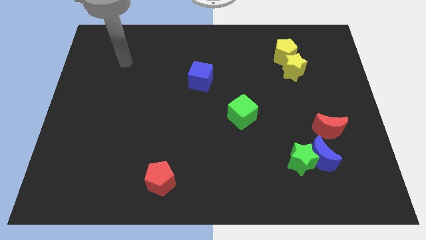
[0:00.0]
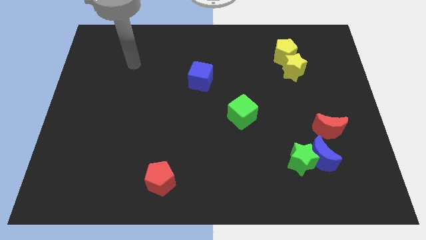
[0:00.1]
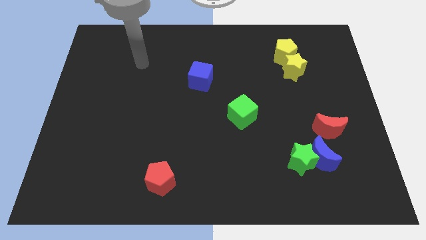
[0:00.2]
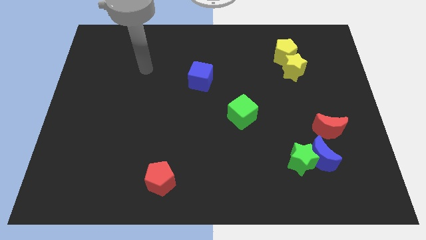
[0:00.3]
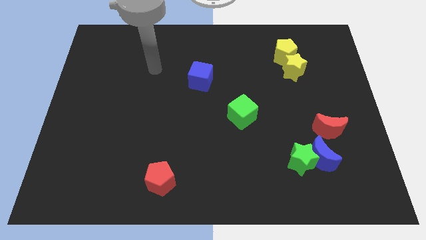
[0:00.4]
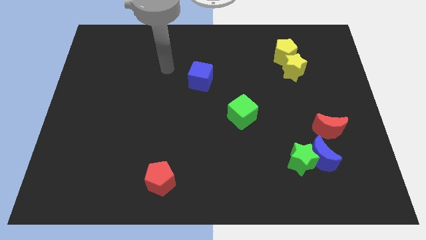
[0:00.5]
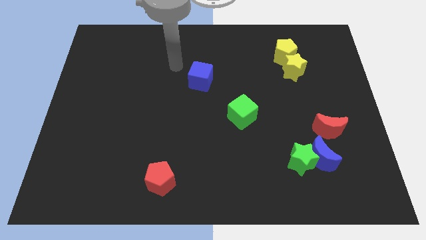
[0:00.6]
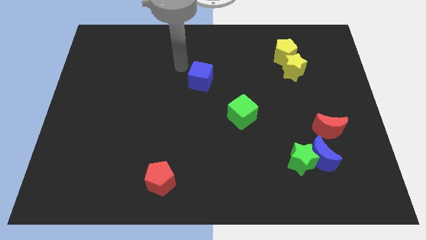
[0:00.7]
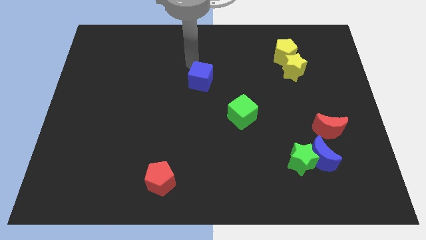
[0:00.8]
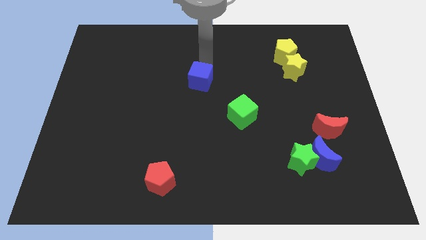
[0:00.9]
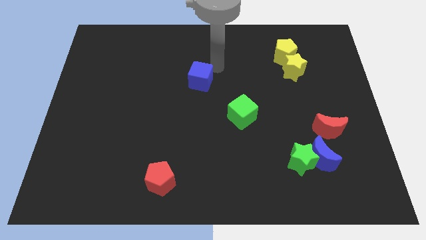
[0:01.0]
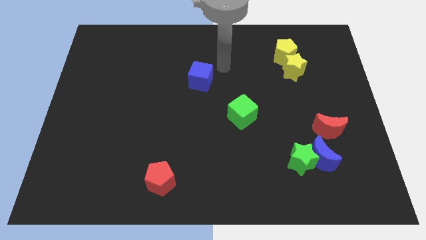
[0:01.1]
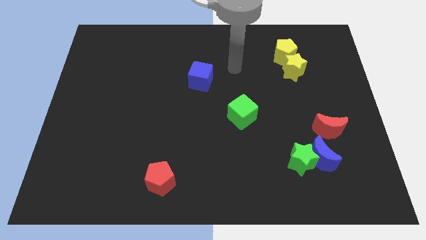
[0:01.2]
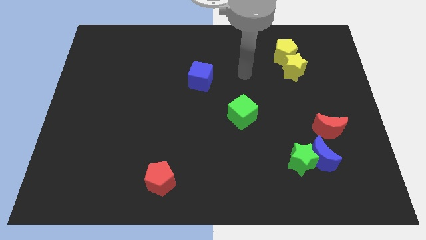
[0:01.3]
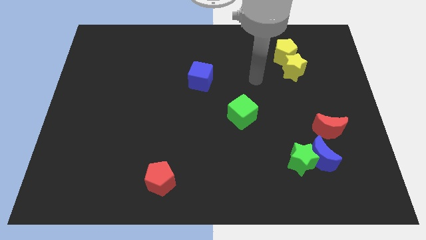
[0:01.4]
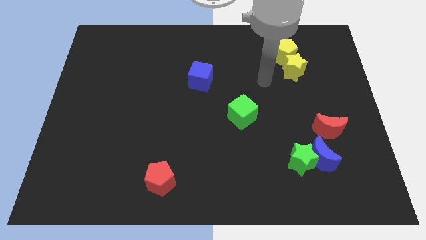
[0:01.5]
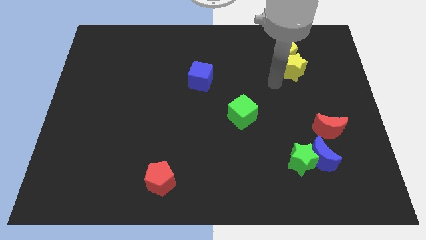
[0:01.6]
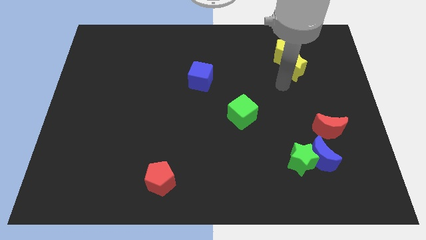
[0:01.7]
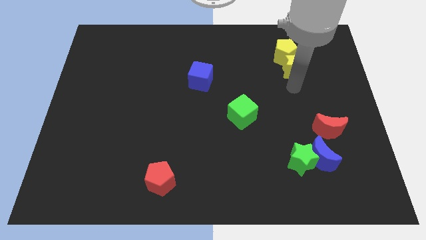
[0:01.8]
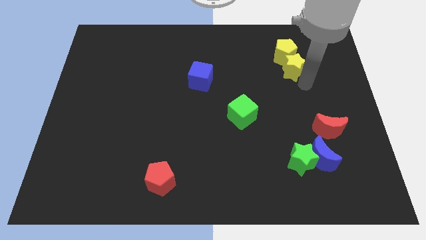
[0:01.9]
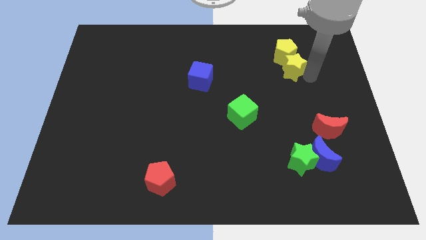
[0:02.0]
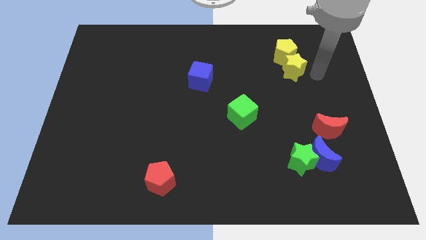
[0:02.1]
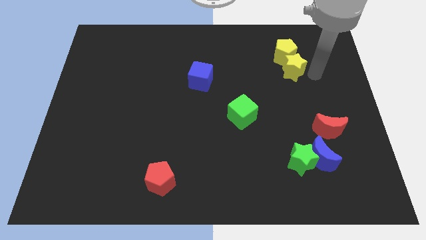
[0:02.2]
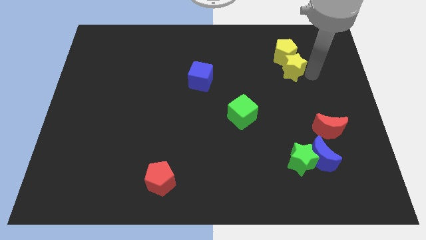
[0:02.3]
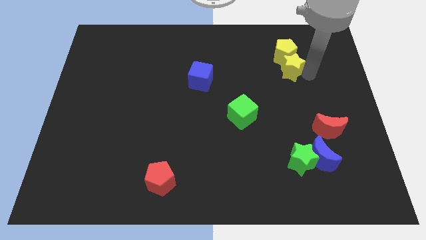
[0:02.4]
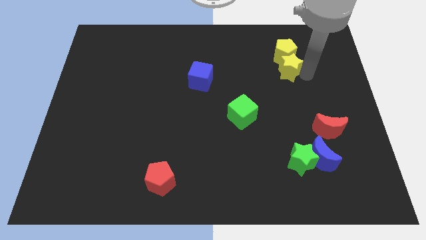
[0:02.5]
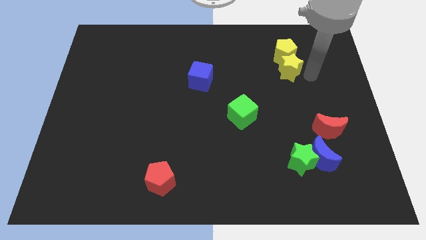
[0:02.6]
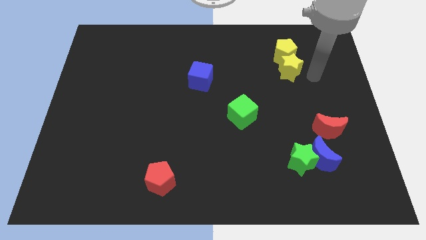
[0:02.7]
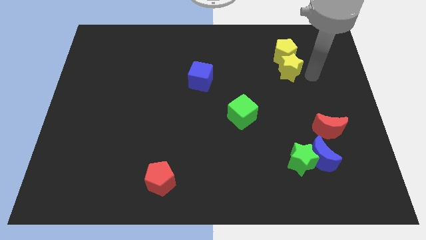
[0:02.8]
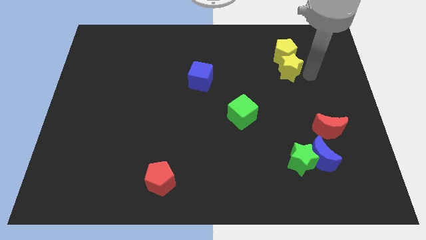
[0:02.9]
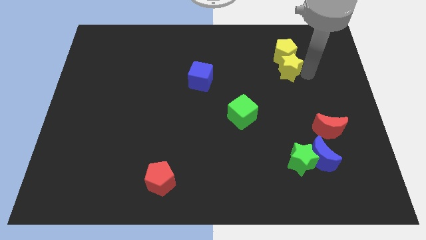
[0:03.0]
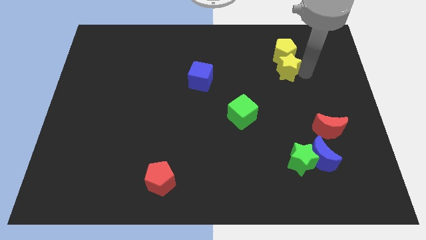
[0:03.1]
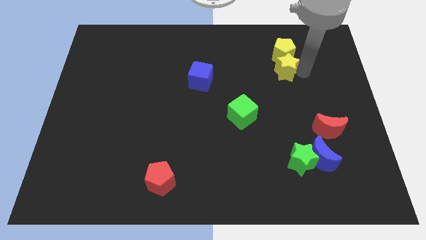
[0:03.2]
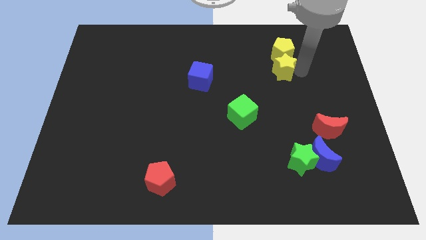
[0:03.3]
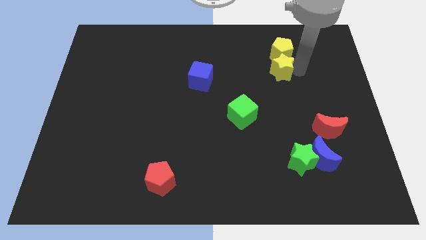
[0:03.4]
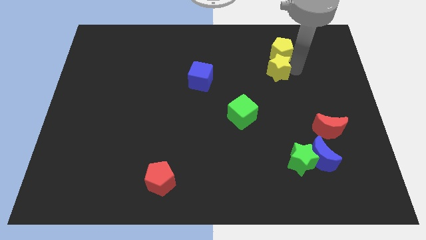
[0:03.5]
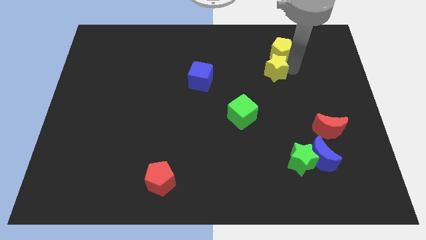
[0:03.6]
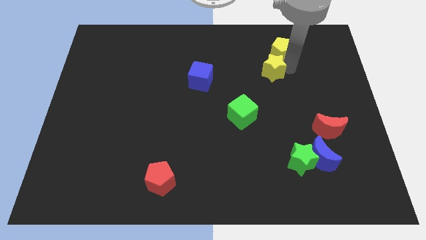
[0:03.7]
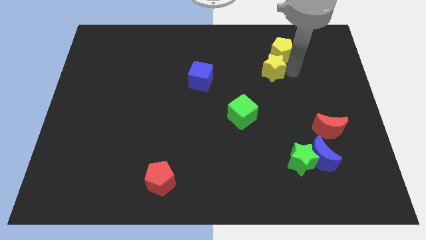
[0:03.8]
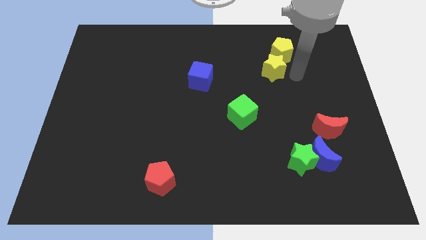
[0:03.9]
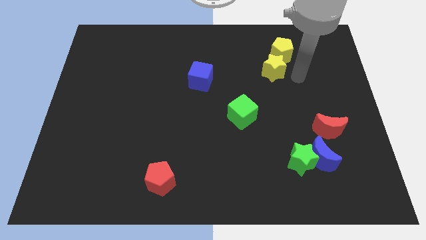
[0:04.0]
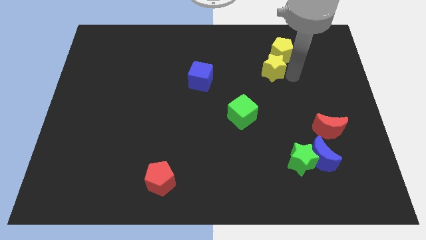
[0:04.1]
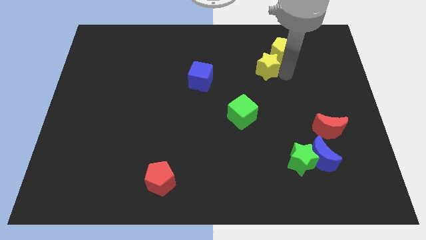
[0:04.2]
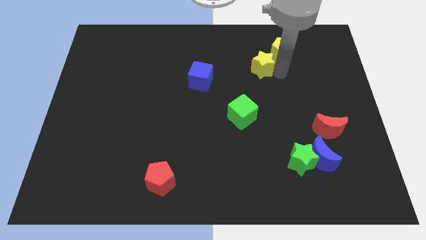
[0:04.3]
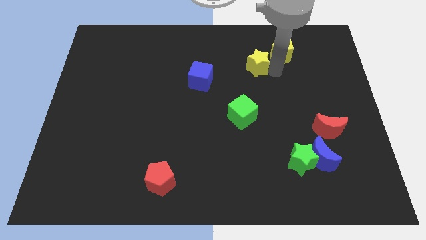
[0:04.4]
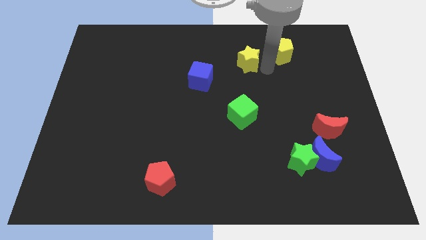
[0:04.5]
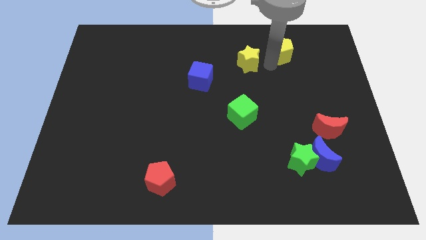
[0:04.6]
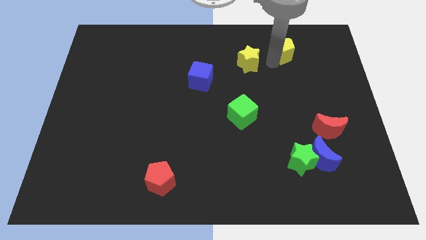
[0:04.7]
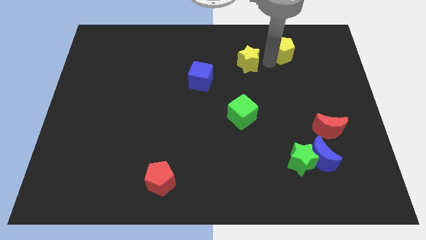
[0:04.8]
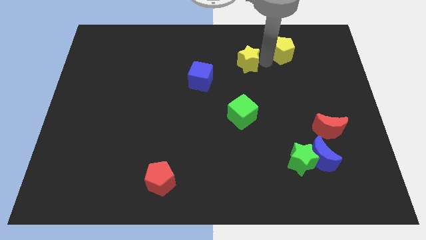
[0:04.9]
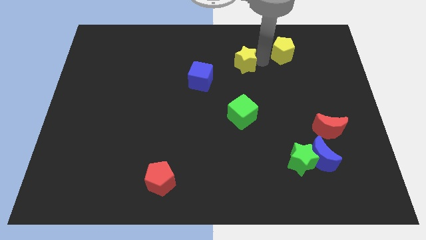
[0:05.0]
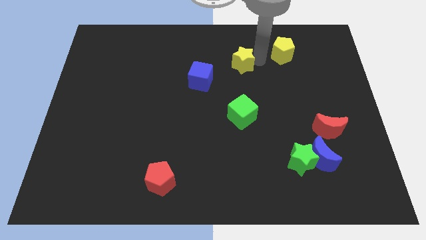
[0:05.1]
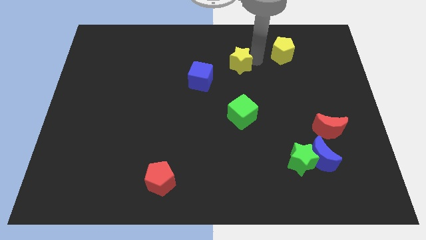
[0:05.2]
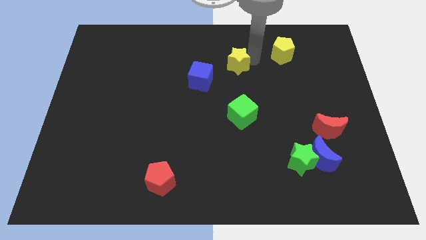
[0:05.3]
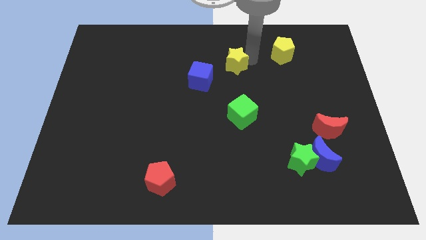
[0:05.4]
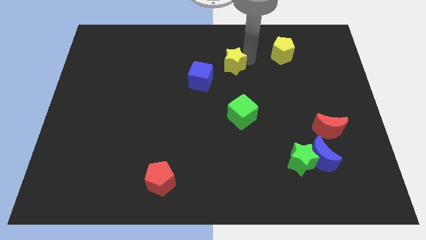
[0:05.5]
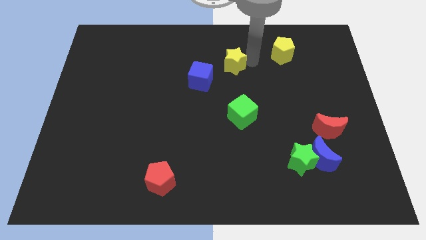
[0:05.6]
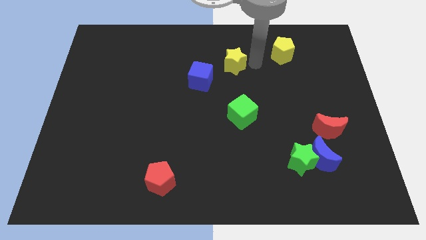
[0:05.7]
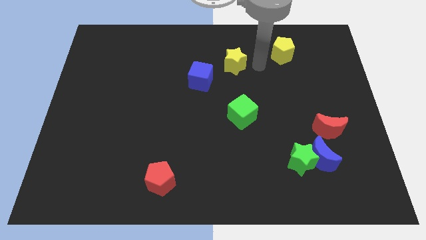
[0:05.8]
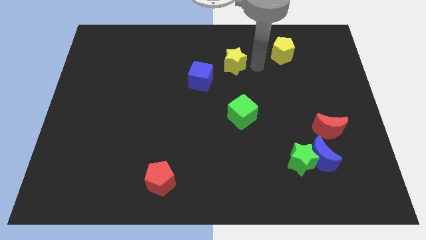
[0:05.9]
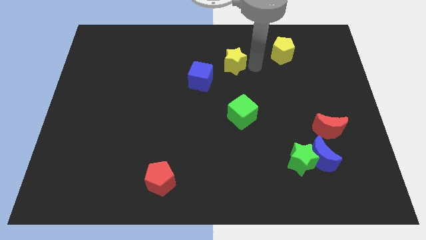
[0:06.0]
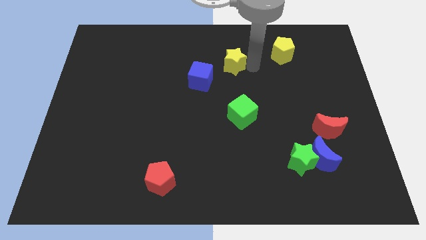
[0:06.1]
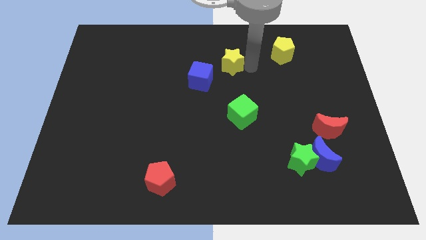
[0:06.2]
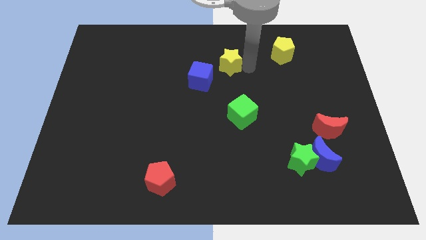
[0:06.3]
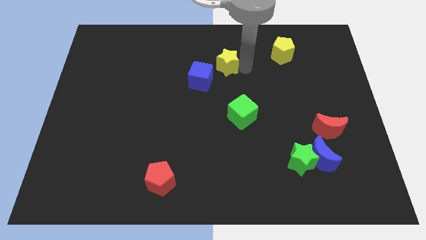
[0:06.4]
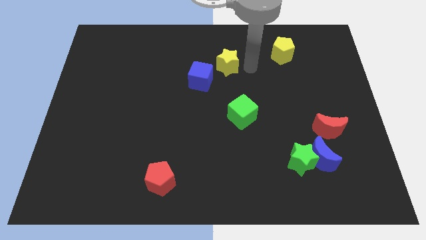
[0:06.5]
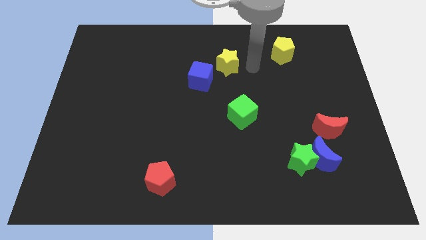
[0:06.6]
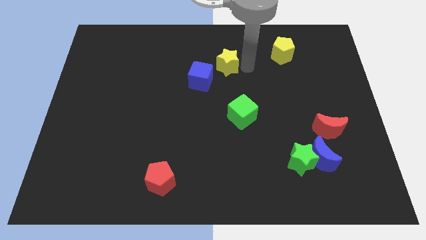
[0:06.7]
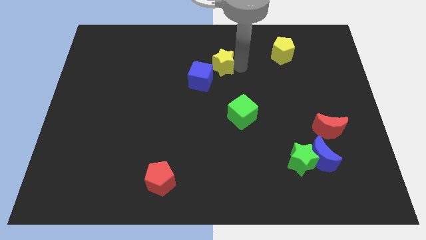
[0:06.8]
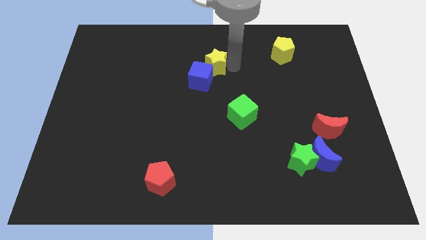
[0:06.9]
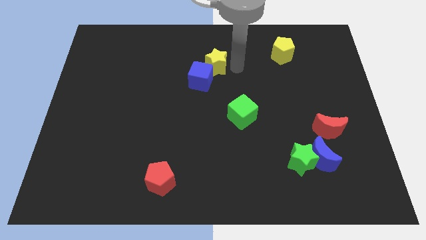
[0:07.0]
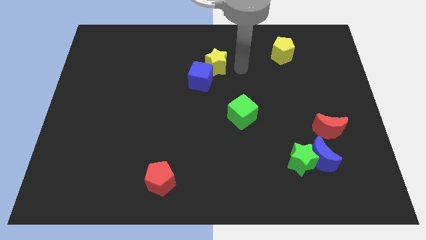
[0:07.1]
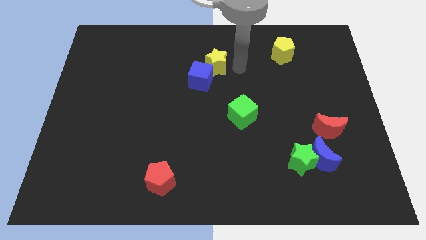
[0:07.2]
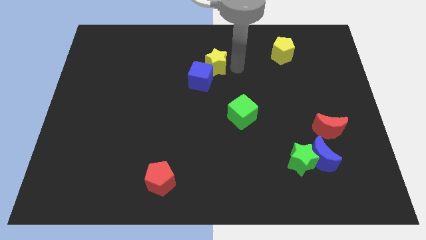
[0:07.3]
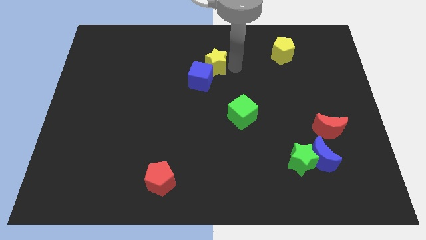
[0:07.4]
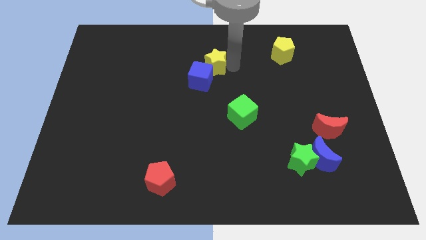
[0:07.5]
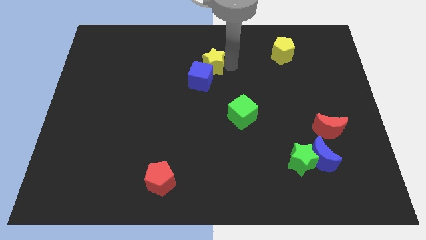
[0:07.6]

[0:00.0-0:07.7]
slide the yellow star to the left

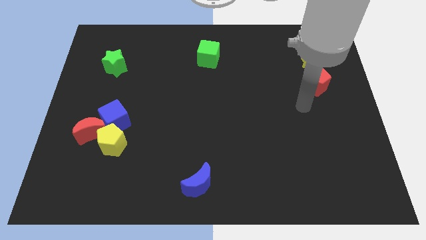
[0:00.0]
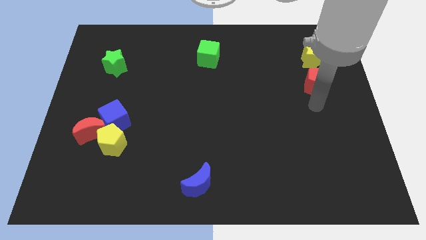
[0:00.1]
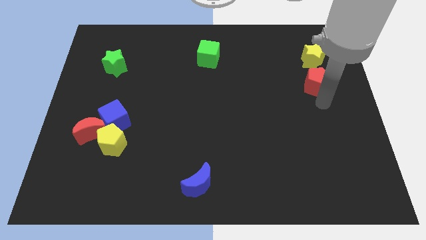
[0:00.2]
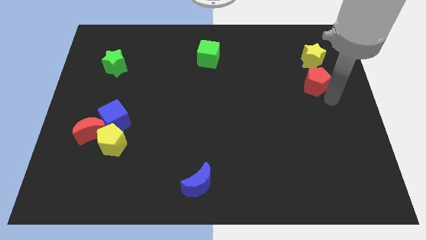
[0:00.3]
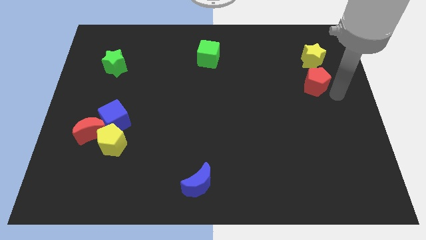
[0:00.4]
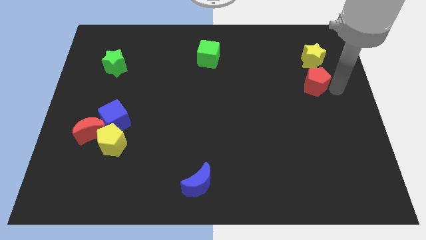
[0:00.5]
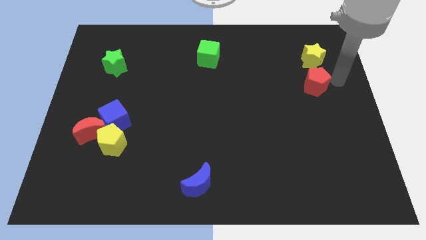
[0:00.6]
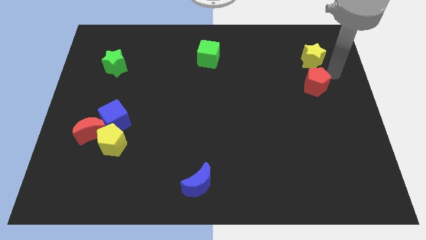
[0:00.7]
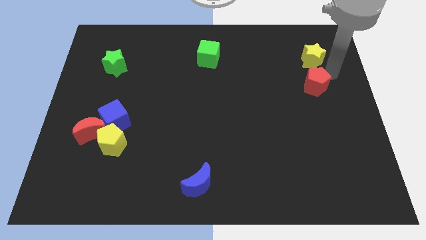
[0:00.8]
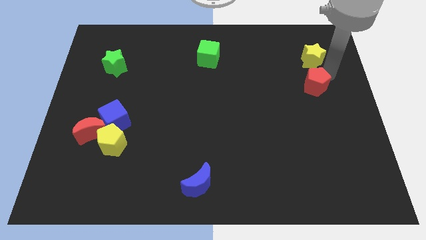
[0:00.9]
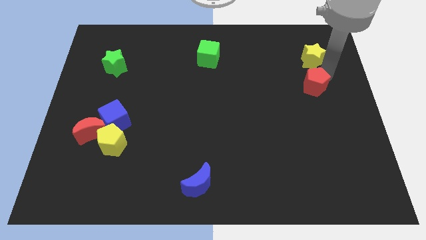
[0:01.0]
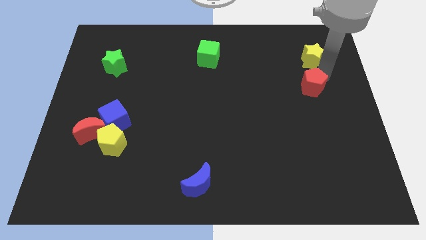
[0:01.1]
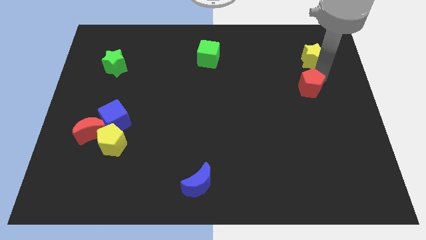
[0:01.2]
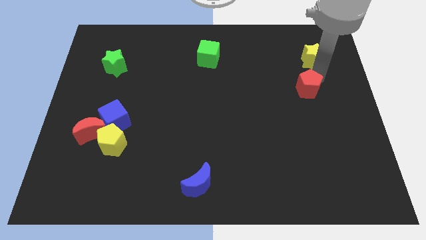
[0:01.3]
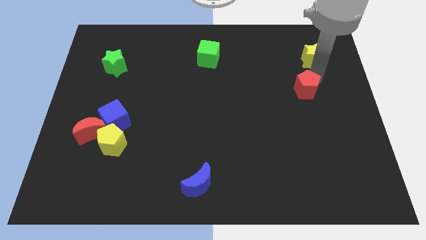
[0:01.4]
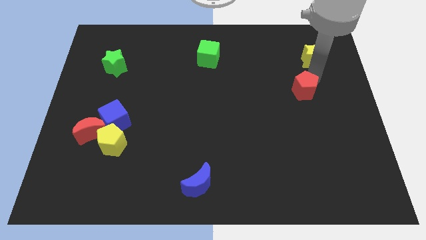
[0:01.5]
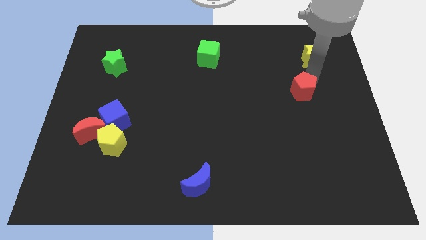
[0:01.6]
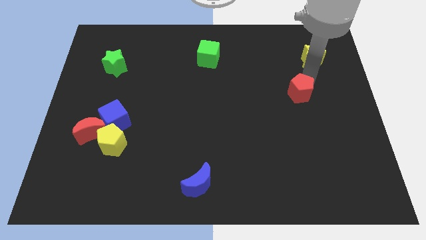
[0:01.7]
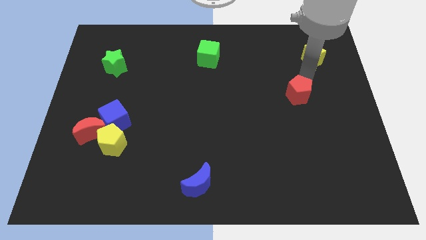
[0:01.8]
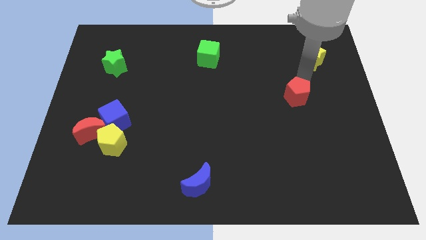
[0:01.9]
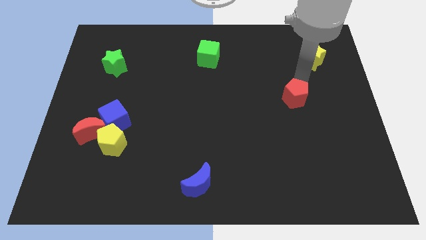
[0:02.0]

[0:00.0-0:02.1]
move the red pentagon down and to the left a little bit
